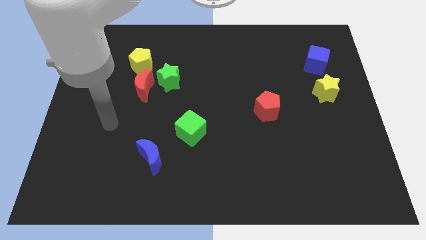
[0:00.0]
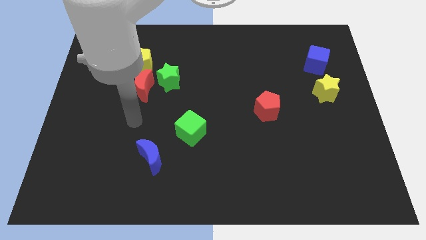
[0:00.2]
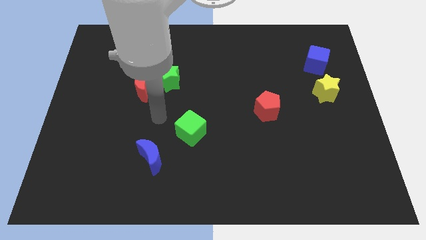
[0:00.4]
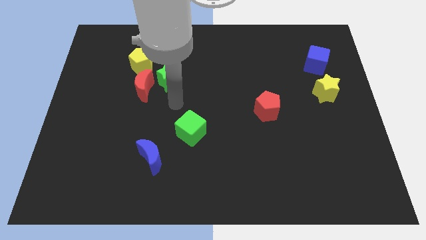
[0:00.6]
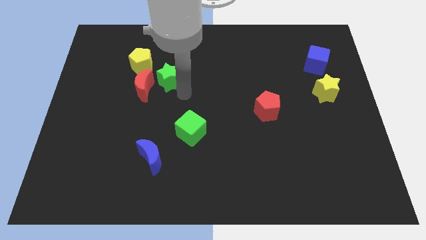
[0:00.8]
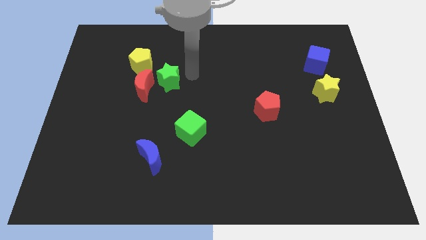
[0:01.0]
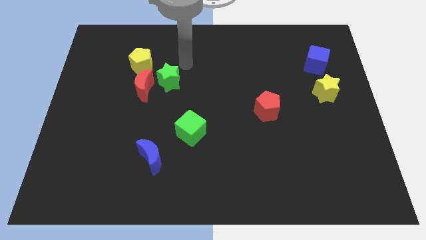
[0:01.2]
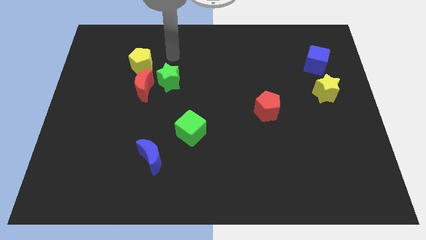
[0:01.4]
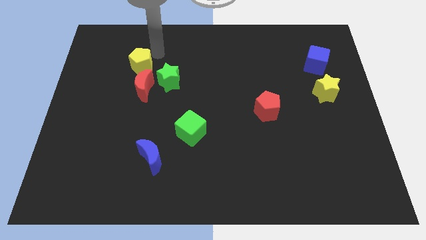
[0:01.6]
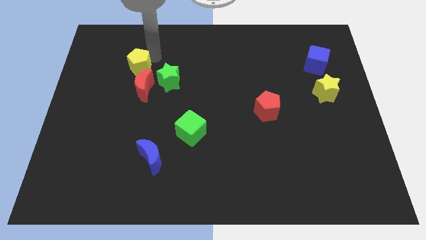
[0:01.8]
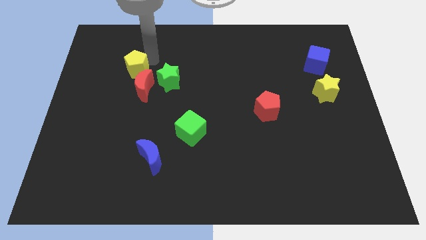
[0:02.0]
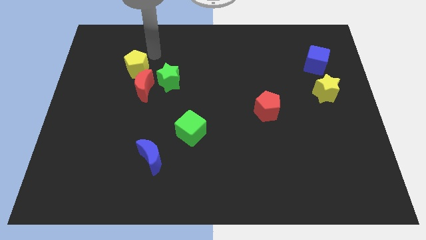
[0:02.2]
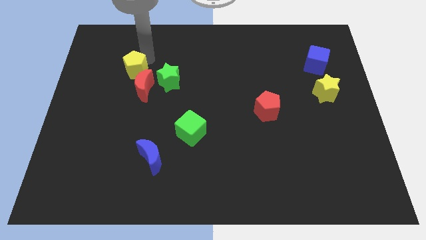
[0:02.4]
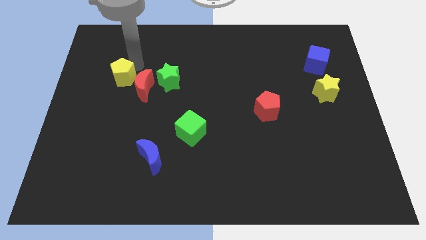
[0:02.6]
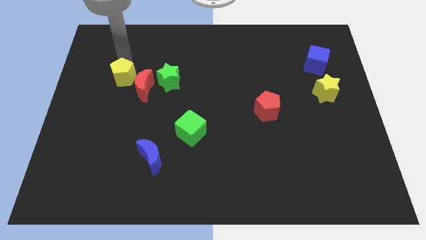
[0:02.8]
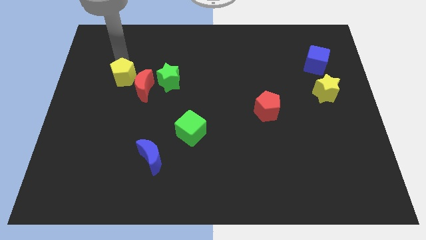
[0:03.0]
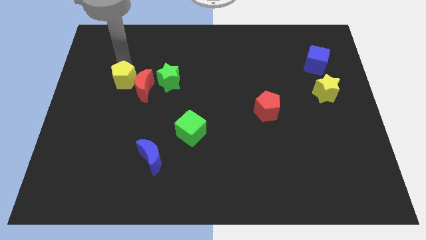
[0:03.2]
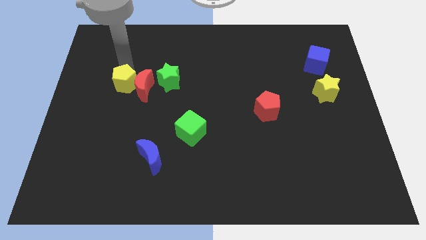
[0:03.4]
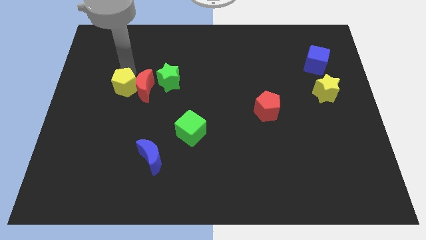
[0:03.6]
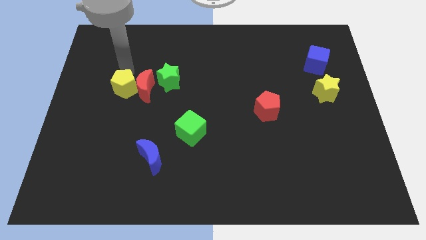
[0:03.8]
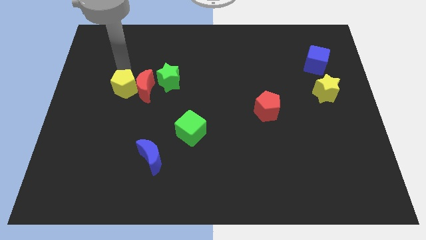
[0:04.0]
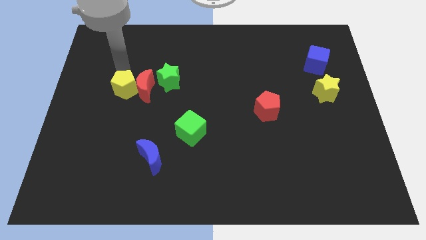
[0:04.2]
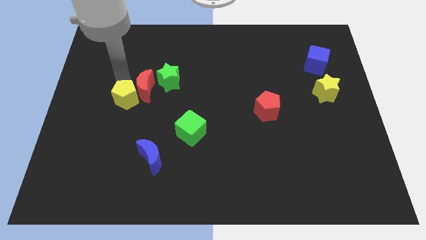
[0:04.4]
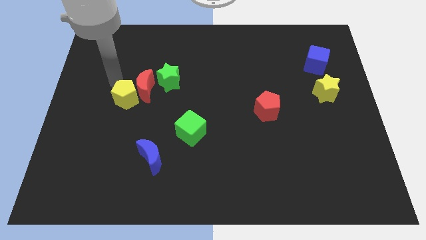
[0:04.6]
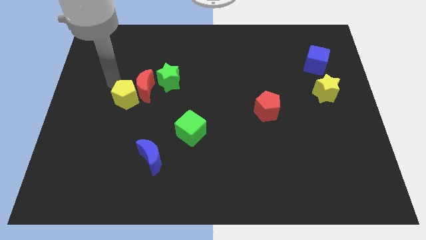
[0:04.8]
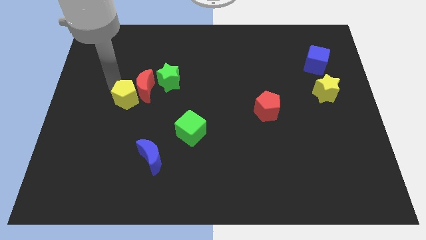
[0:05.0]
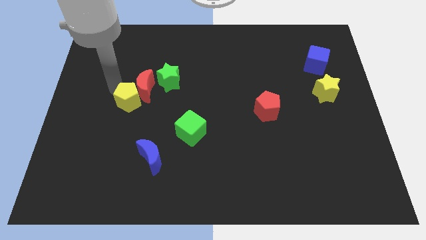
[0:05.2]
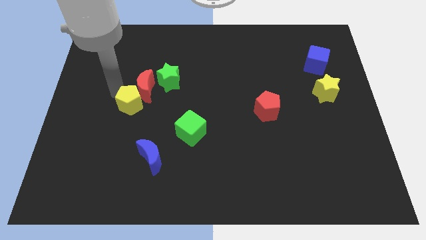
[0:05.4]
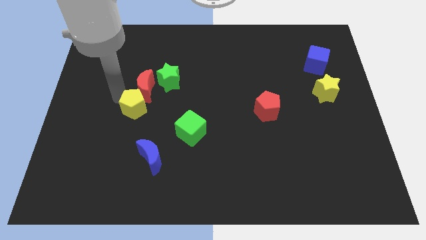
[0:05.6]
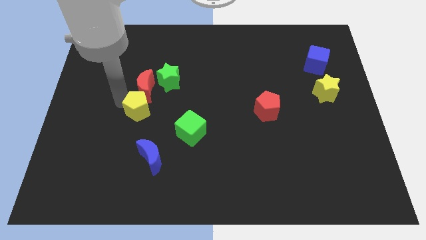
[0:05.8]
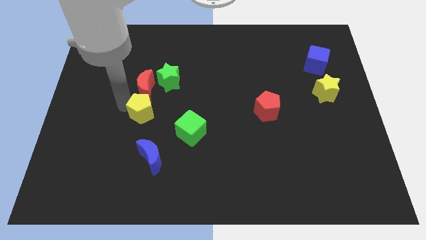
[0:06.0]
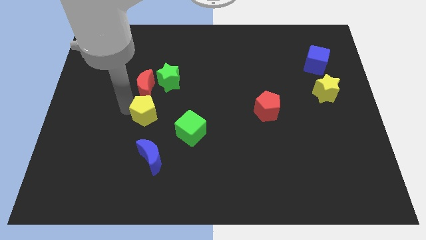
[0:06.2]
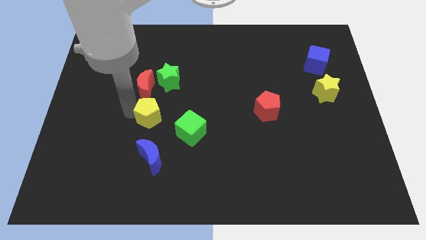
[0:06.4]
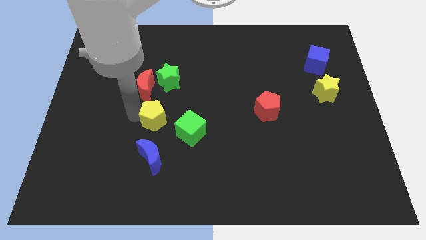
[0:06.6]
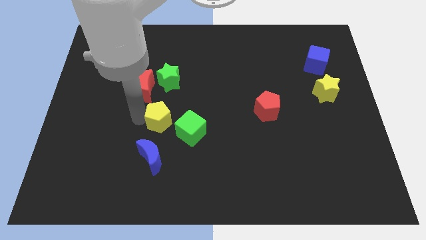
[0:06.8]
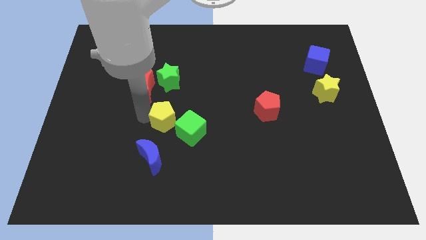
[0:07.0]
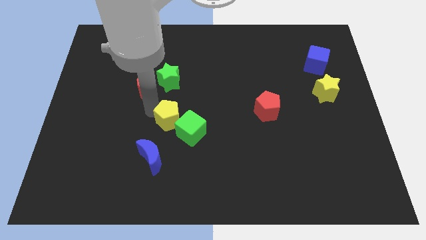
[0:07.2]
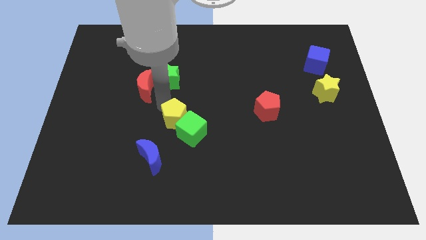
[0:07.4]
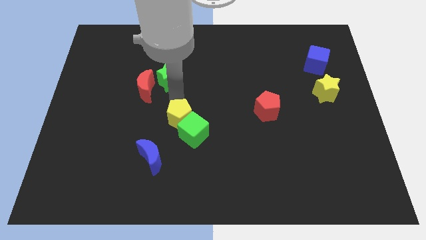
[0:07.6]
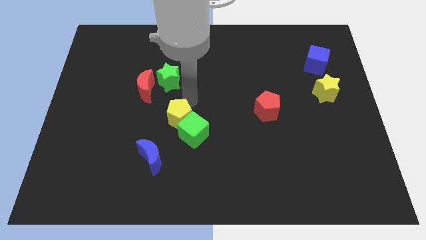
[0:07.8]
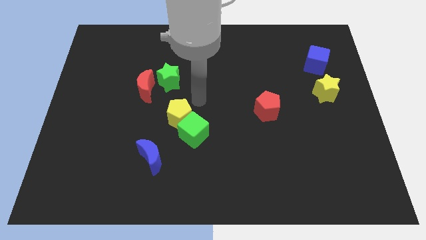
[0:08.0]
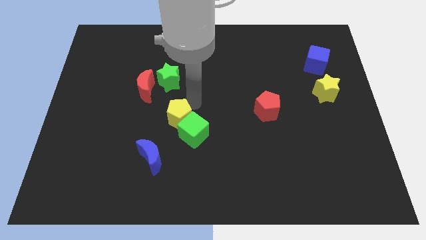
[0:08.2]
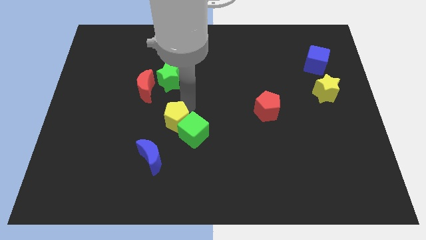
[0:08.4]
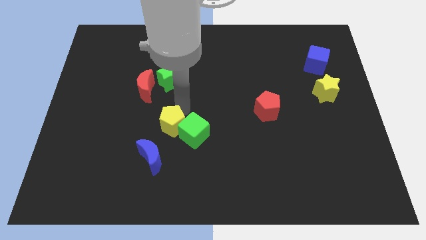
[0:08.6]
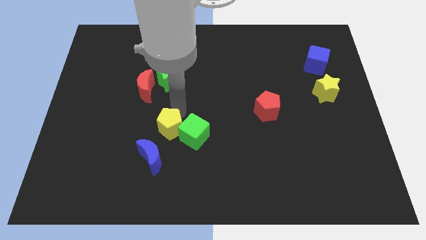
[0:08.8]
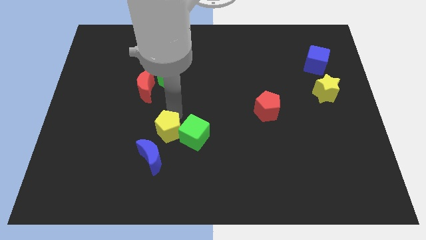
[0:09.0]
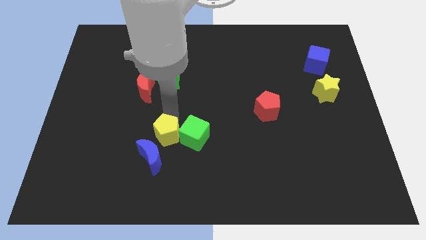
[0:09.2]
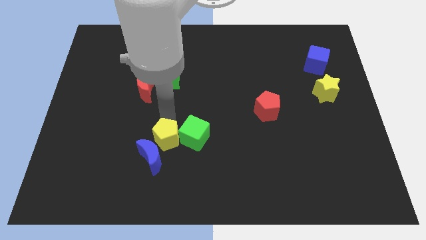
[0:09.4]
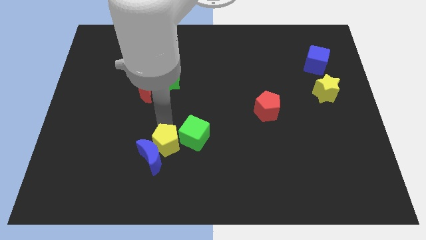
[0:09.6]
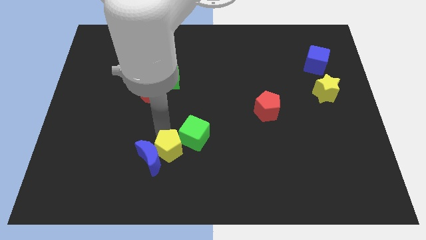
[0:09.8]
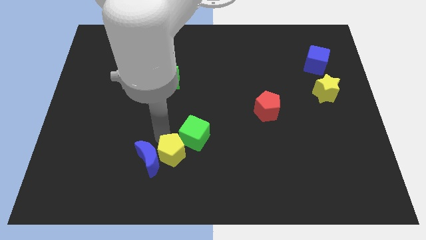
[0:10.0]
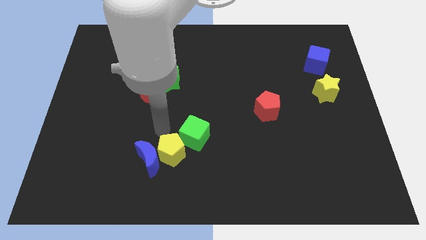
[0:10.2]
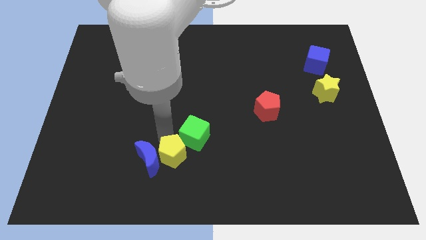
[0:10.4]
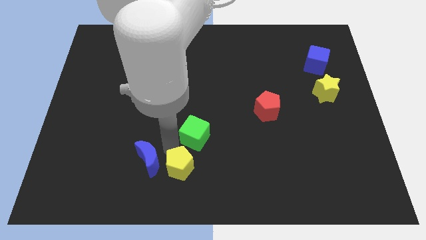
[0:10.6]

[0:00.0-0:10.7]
slide the yellow pentagon to the bottom side

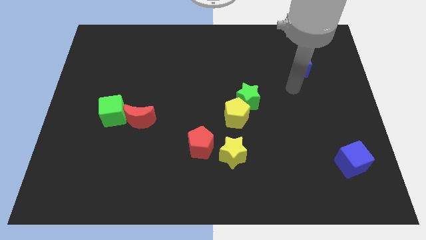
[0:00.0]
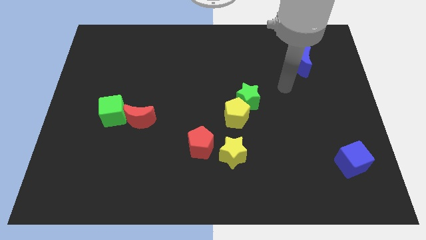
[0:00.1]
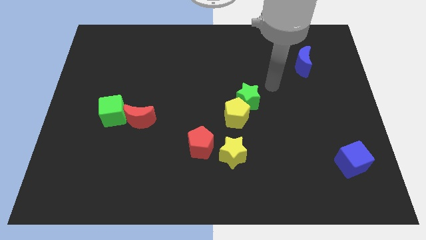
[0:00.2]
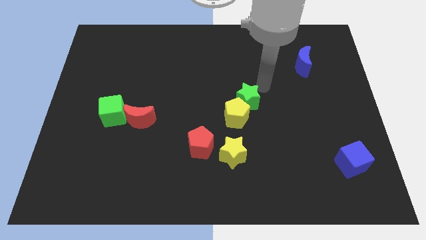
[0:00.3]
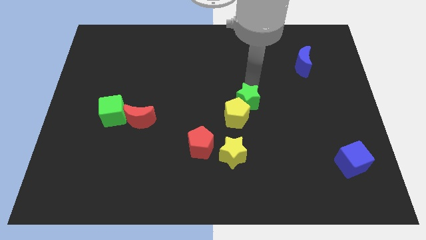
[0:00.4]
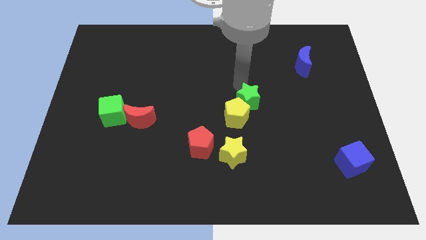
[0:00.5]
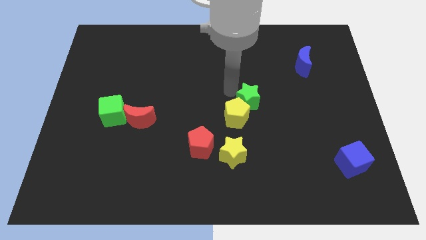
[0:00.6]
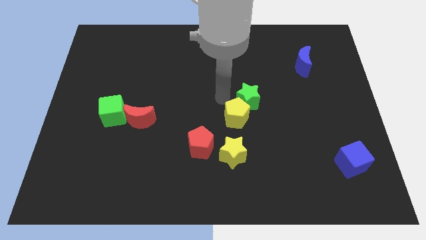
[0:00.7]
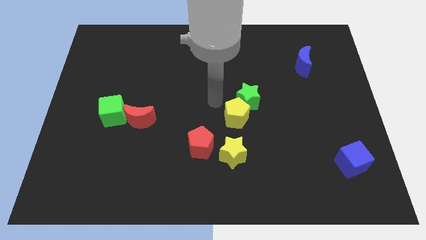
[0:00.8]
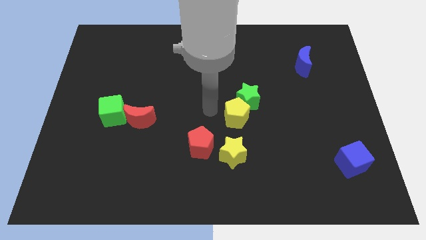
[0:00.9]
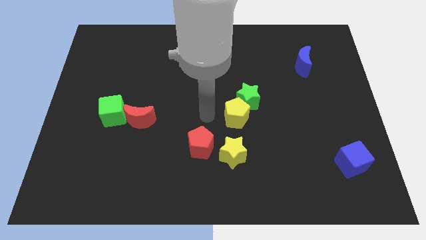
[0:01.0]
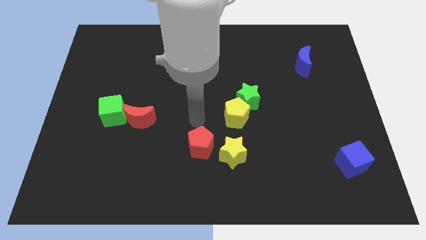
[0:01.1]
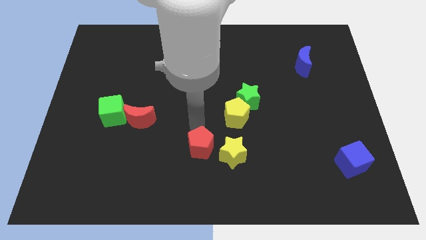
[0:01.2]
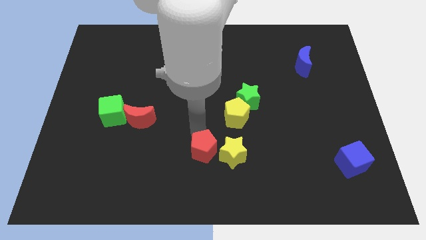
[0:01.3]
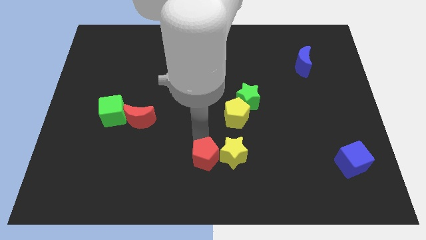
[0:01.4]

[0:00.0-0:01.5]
push the red pentagon to the bottom
